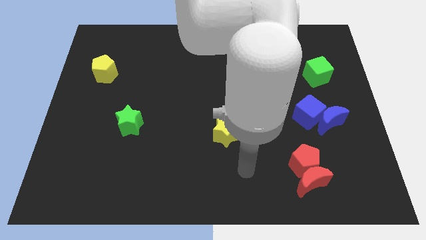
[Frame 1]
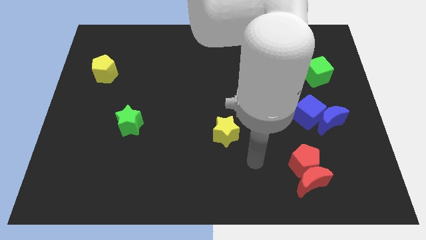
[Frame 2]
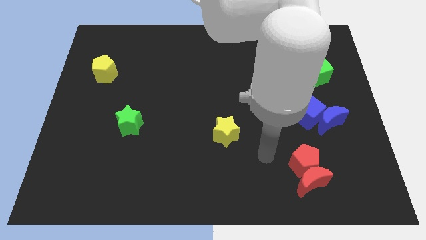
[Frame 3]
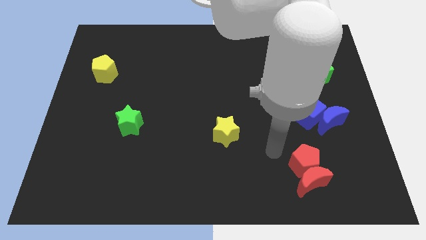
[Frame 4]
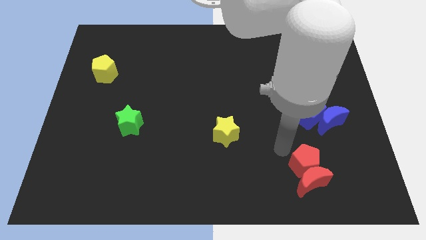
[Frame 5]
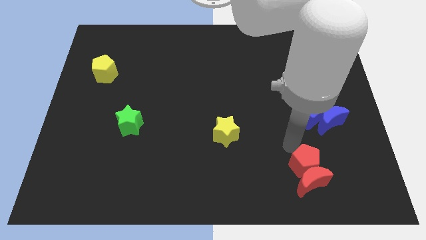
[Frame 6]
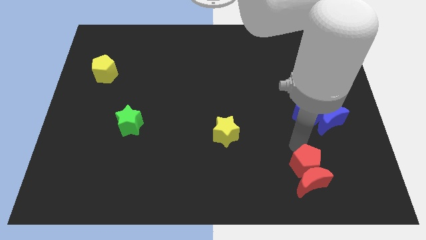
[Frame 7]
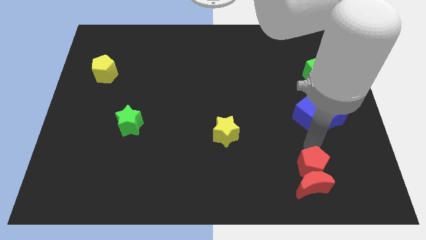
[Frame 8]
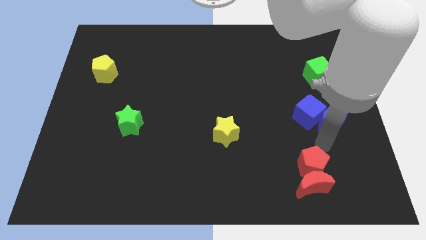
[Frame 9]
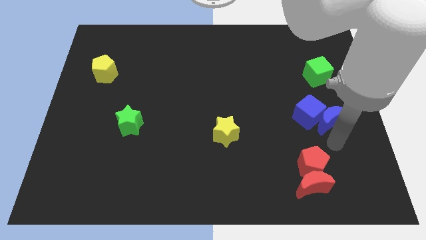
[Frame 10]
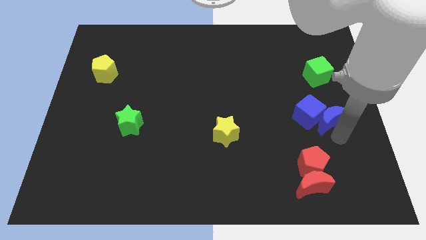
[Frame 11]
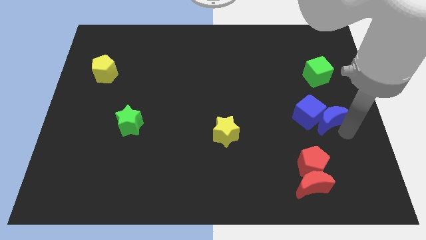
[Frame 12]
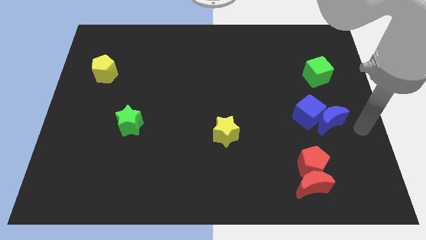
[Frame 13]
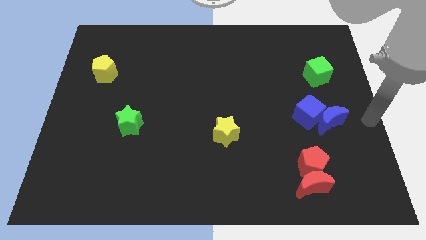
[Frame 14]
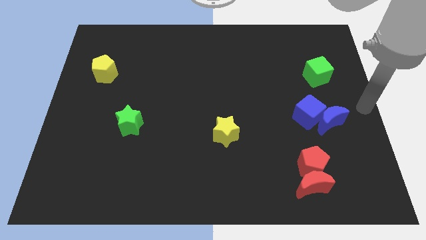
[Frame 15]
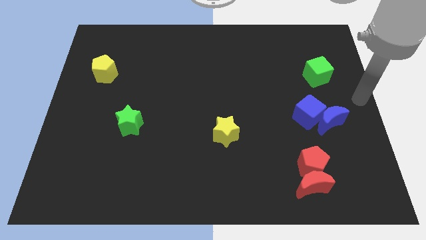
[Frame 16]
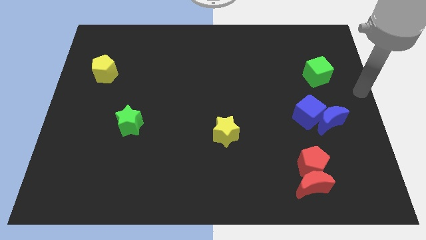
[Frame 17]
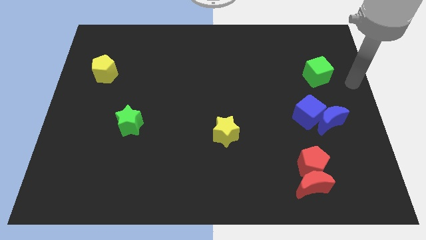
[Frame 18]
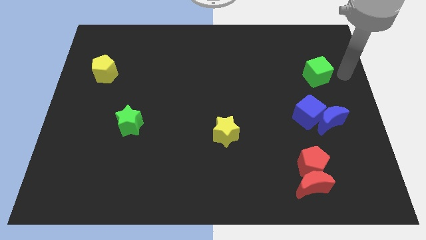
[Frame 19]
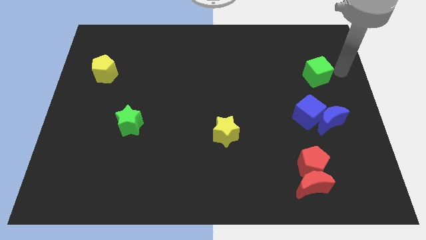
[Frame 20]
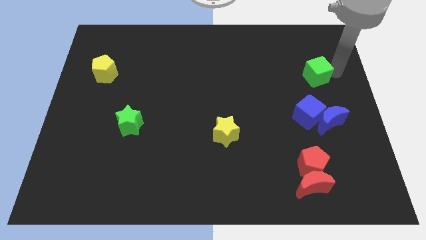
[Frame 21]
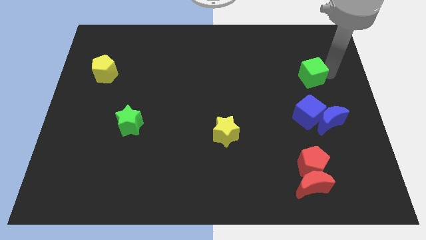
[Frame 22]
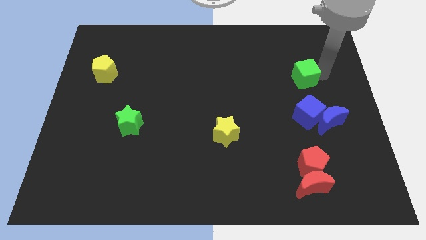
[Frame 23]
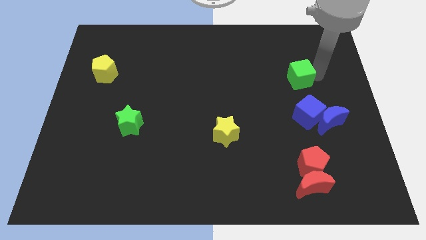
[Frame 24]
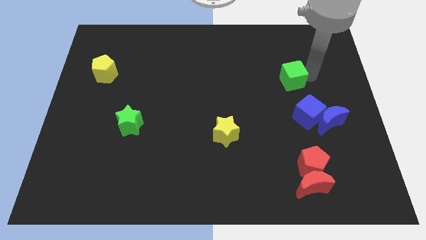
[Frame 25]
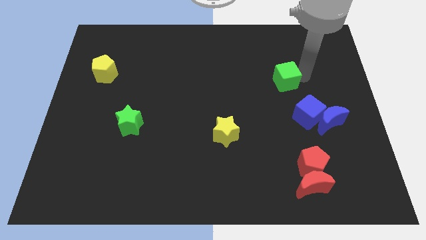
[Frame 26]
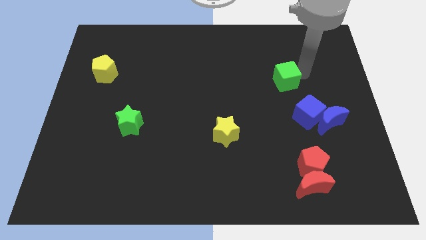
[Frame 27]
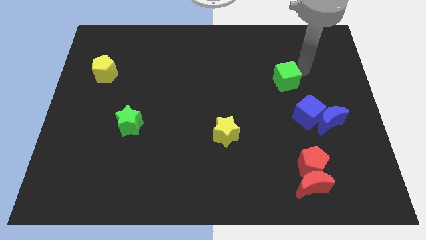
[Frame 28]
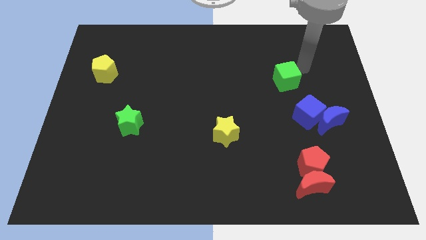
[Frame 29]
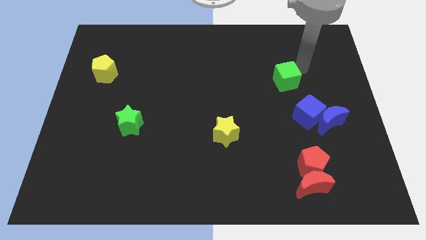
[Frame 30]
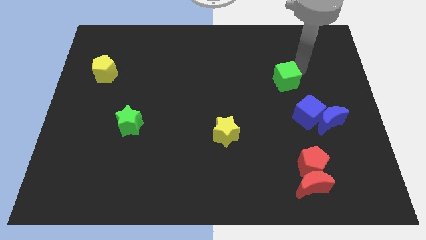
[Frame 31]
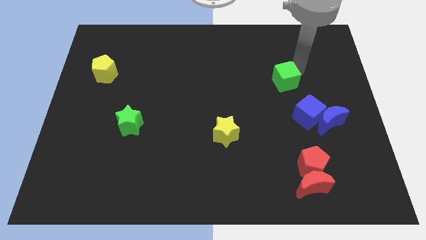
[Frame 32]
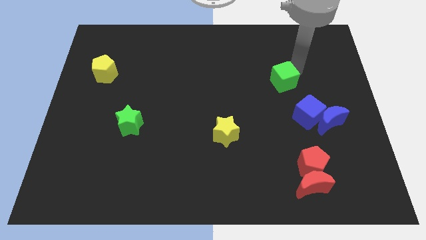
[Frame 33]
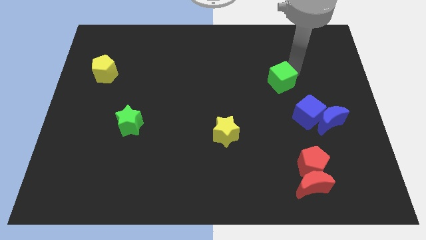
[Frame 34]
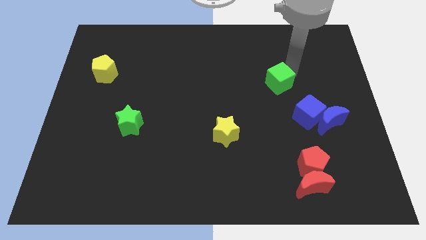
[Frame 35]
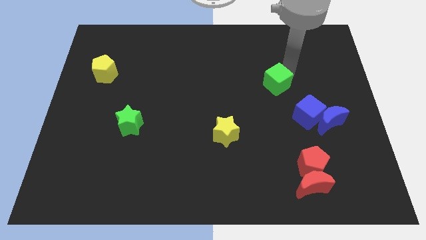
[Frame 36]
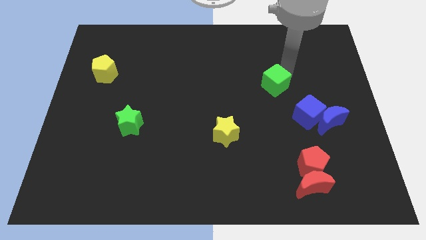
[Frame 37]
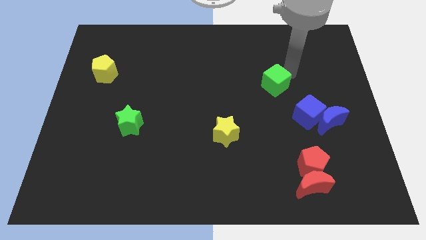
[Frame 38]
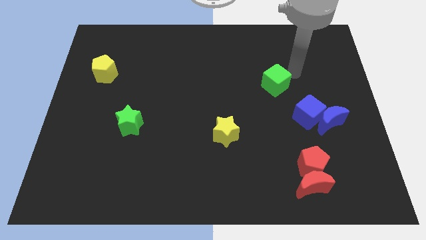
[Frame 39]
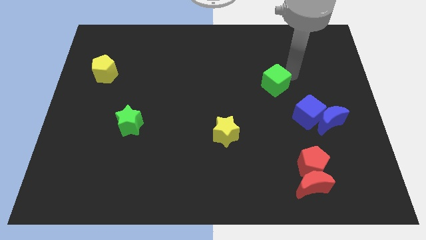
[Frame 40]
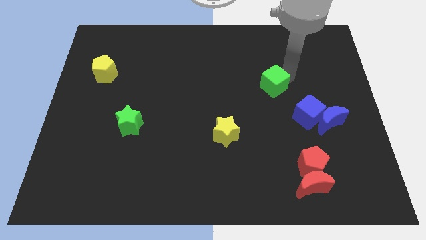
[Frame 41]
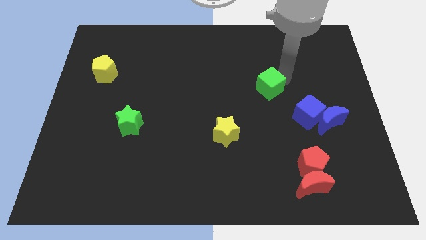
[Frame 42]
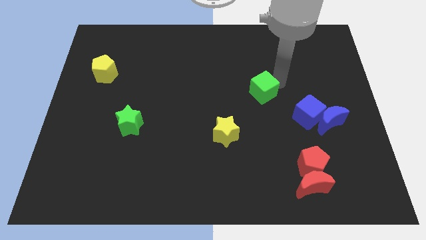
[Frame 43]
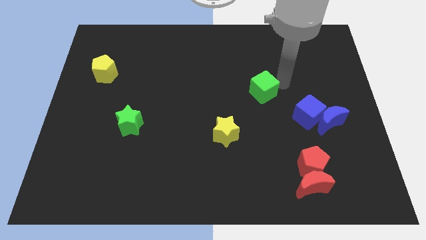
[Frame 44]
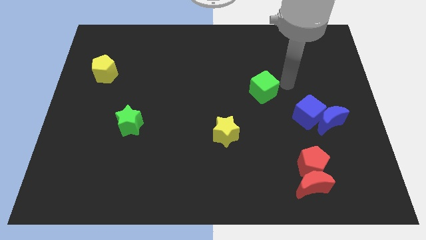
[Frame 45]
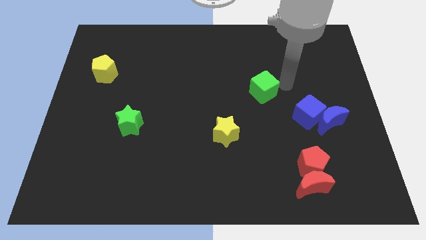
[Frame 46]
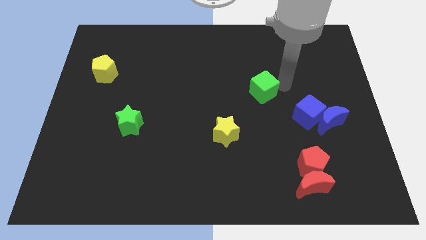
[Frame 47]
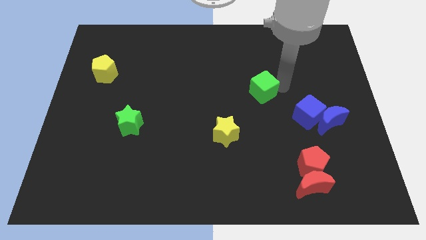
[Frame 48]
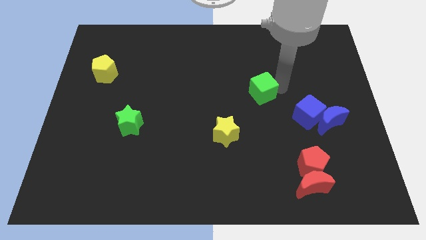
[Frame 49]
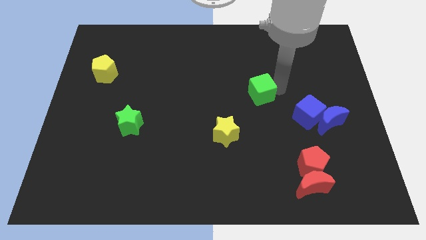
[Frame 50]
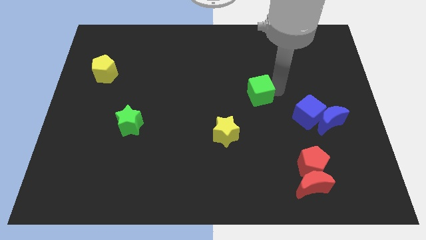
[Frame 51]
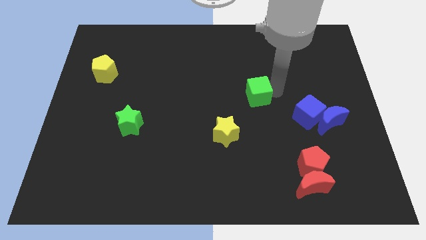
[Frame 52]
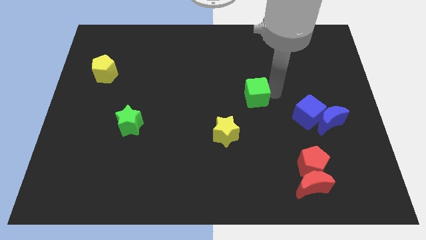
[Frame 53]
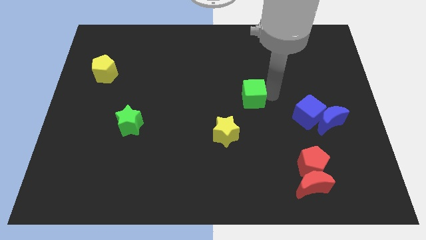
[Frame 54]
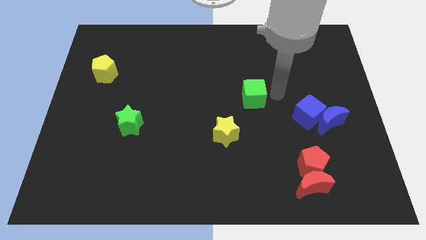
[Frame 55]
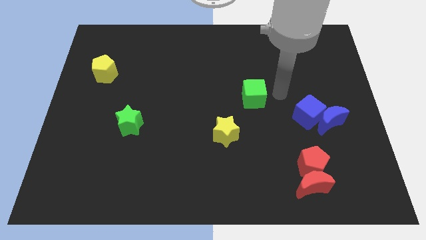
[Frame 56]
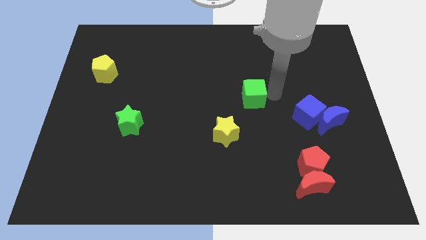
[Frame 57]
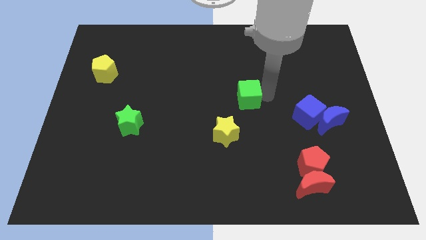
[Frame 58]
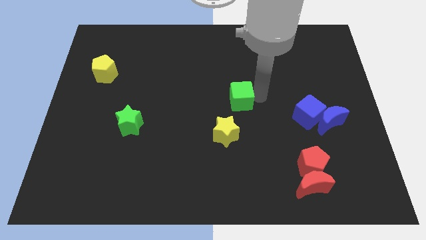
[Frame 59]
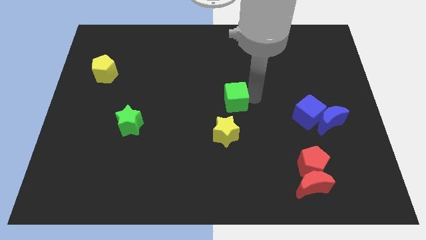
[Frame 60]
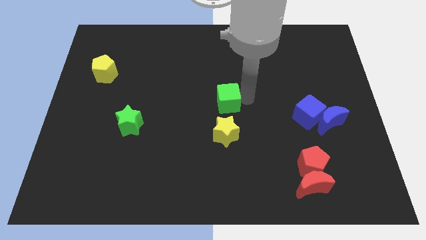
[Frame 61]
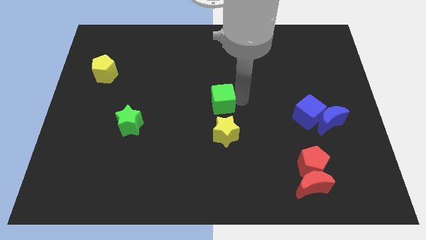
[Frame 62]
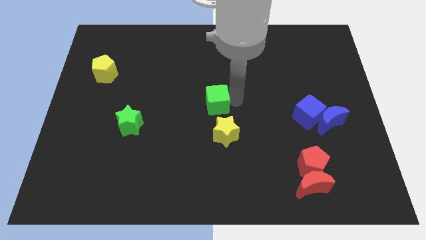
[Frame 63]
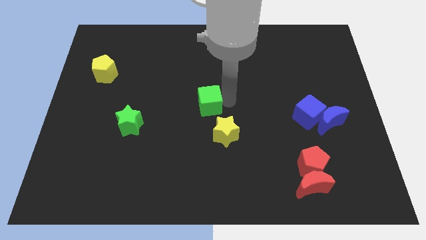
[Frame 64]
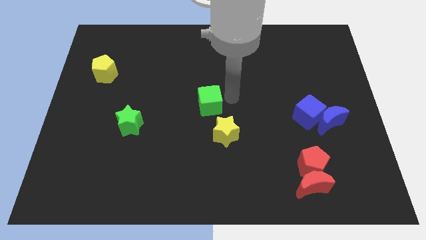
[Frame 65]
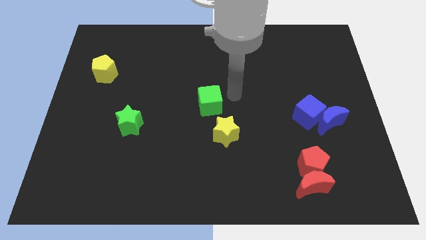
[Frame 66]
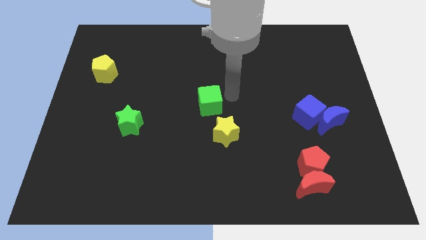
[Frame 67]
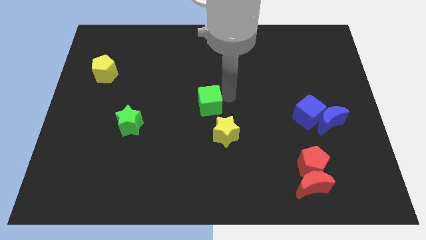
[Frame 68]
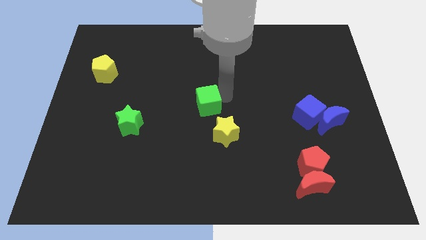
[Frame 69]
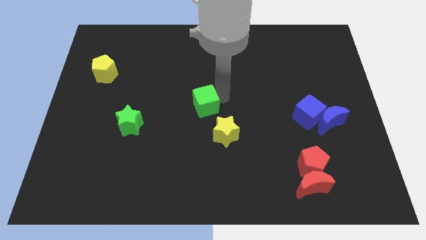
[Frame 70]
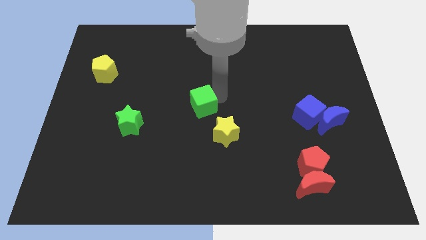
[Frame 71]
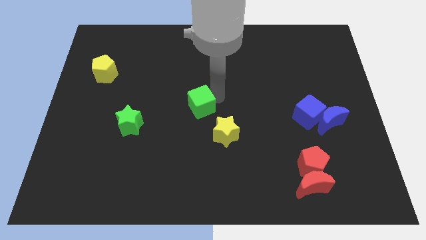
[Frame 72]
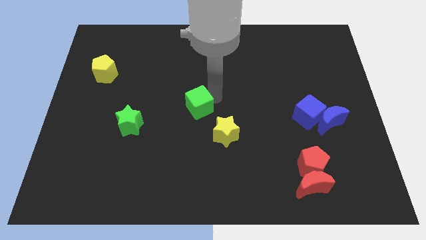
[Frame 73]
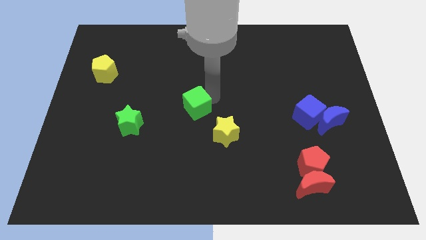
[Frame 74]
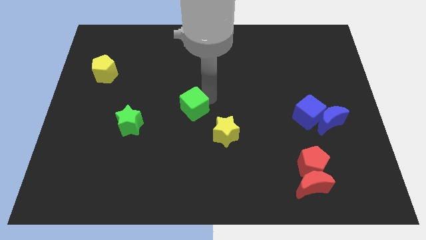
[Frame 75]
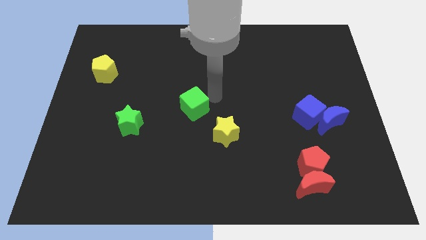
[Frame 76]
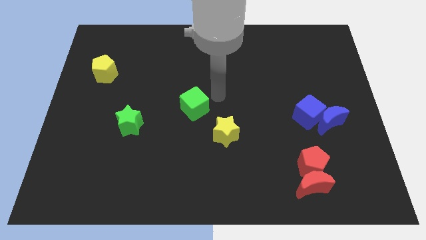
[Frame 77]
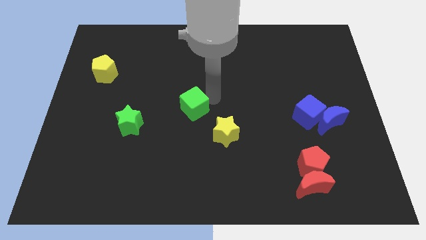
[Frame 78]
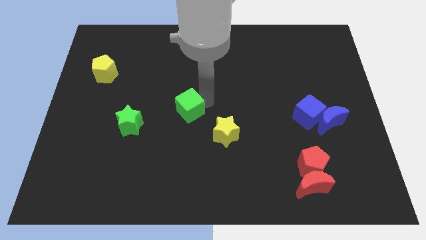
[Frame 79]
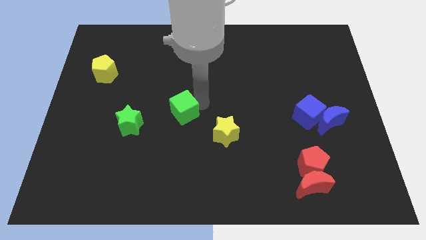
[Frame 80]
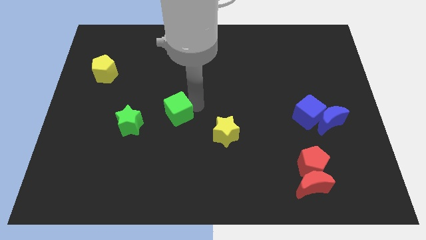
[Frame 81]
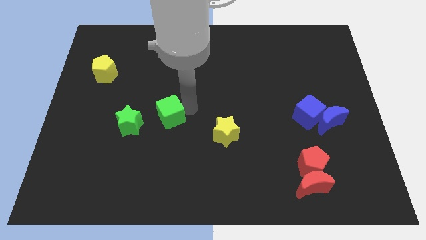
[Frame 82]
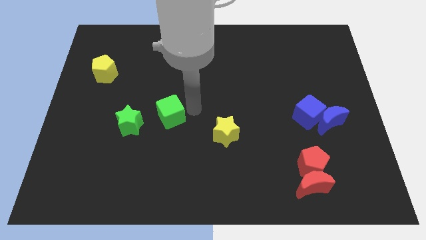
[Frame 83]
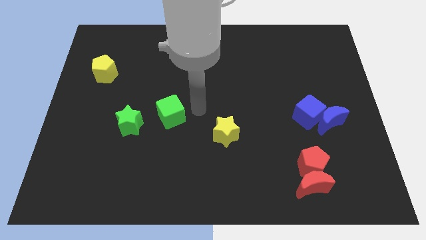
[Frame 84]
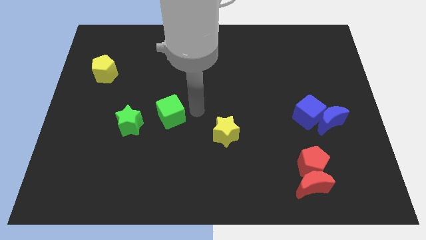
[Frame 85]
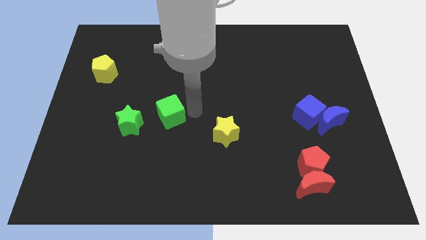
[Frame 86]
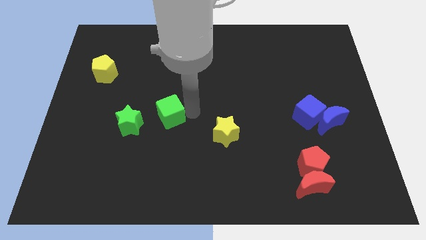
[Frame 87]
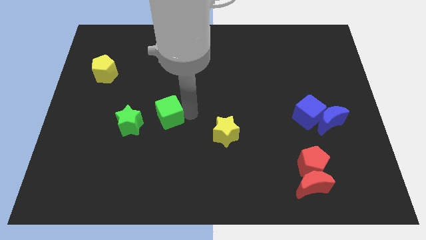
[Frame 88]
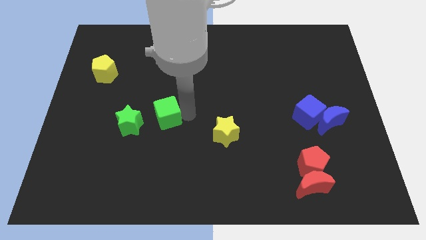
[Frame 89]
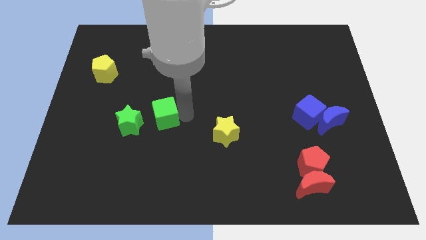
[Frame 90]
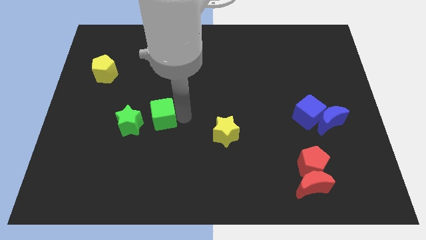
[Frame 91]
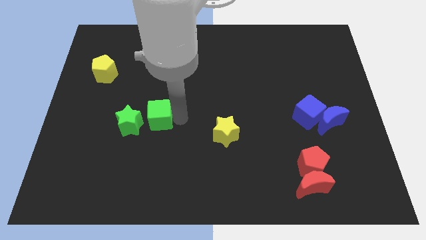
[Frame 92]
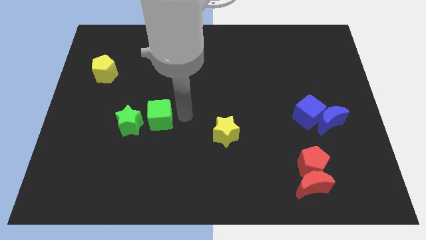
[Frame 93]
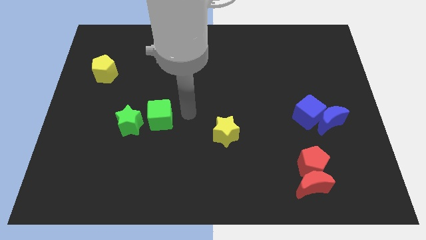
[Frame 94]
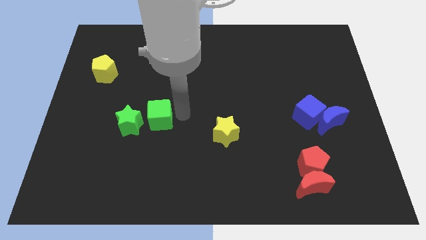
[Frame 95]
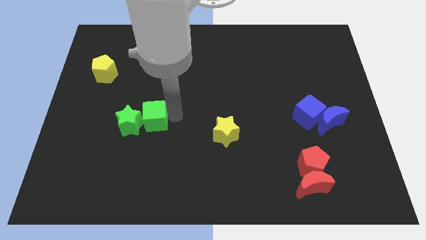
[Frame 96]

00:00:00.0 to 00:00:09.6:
move the green cube next to the green star
